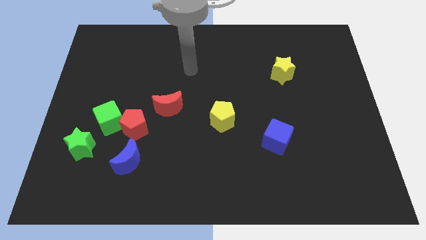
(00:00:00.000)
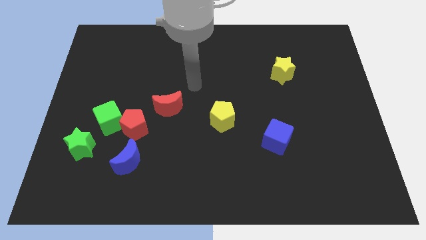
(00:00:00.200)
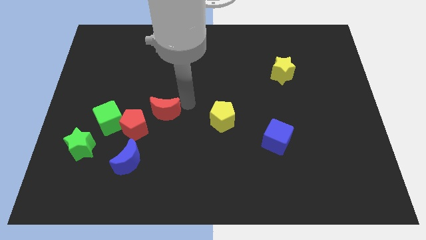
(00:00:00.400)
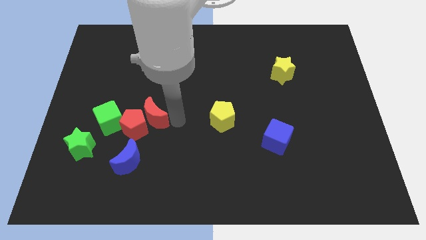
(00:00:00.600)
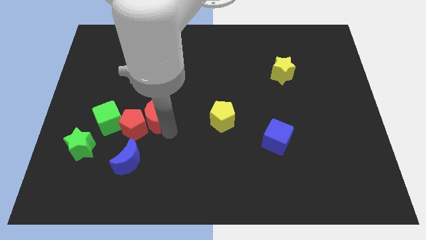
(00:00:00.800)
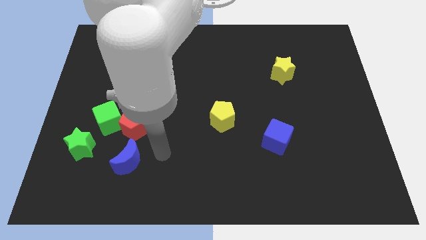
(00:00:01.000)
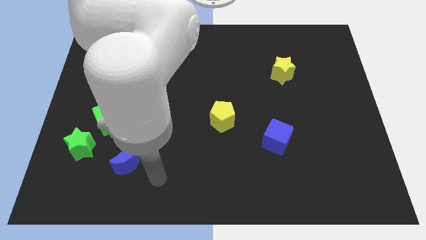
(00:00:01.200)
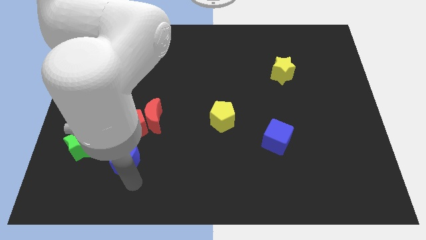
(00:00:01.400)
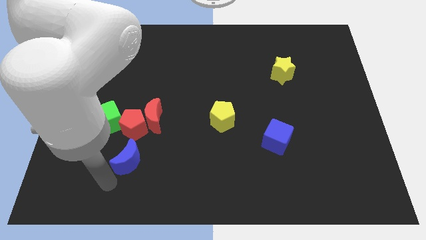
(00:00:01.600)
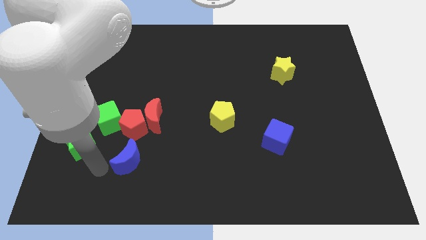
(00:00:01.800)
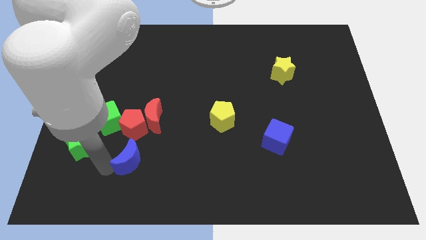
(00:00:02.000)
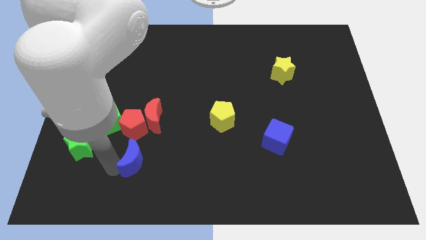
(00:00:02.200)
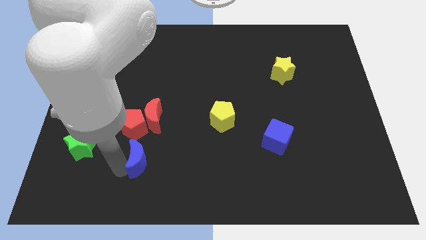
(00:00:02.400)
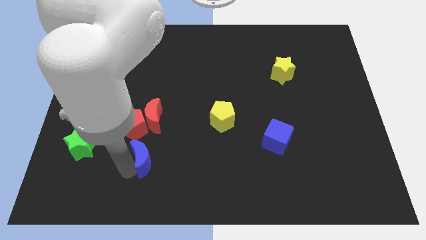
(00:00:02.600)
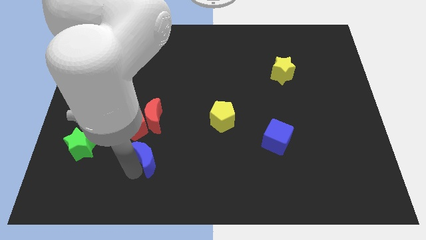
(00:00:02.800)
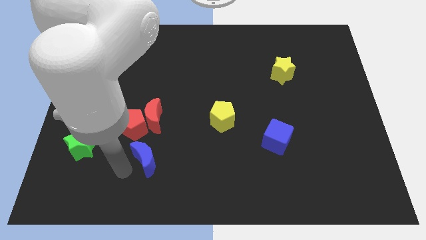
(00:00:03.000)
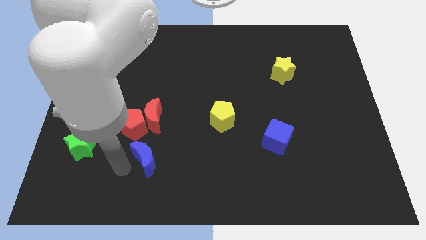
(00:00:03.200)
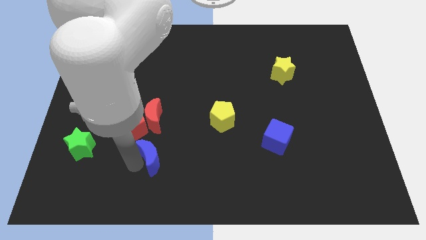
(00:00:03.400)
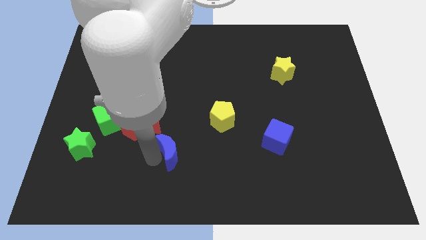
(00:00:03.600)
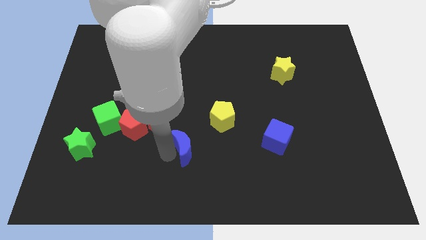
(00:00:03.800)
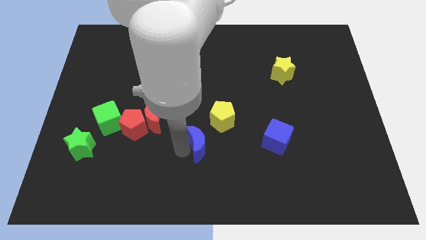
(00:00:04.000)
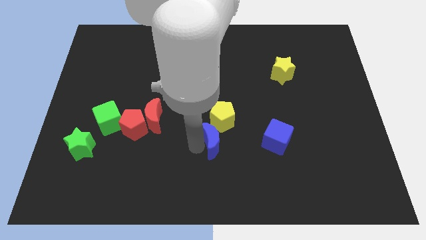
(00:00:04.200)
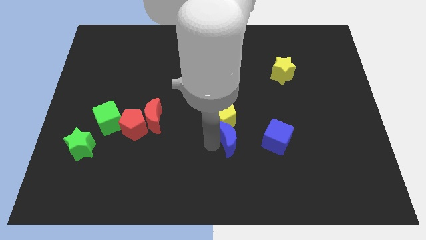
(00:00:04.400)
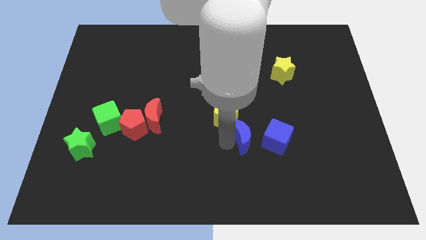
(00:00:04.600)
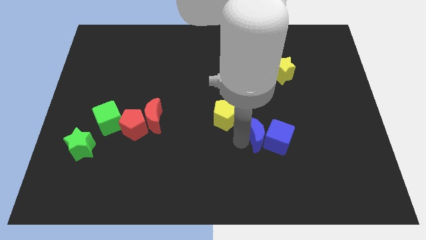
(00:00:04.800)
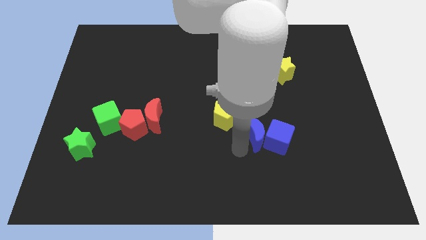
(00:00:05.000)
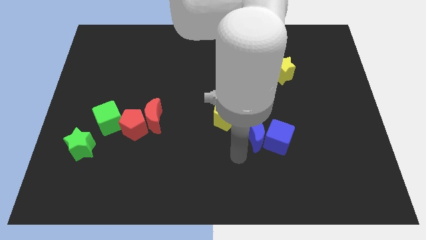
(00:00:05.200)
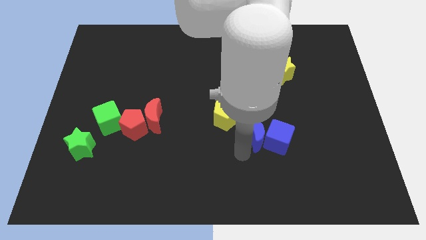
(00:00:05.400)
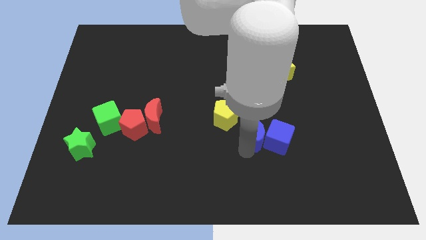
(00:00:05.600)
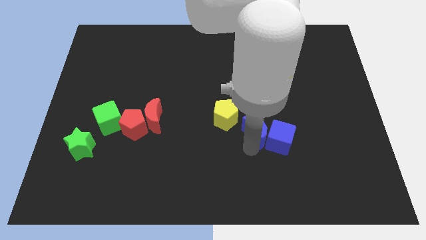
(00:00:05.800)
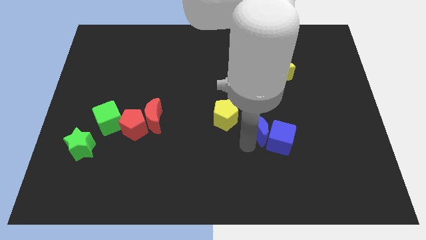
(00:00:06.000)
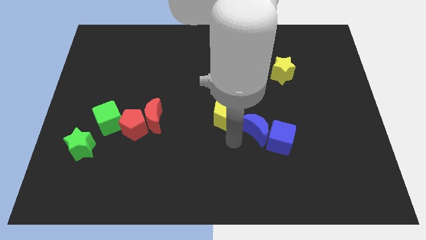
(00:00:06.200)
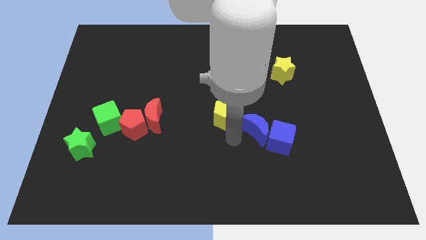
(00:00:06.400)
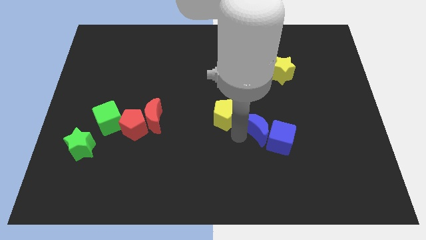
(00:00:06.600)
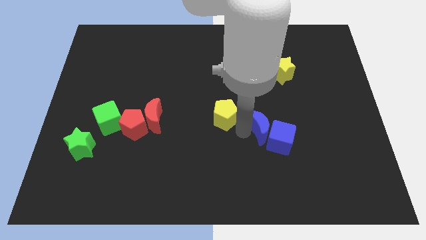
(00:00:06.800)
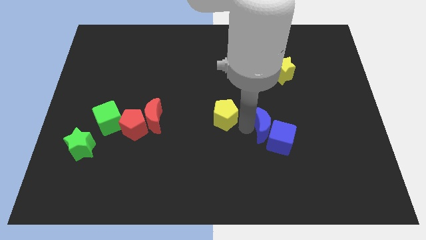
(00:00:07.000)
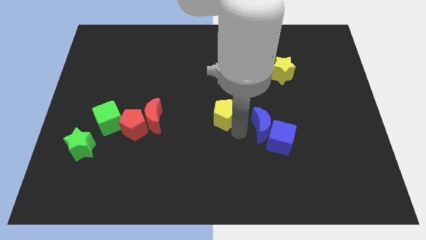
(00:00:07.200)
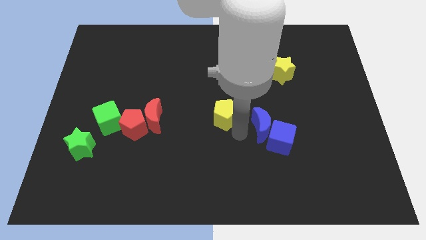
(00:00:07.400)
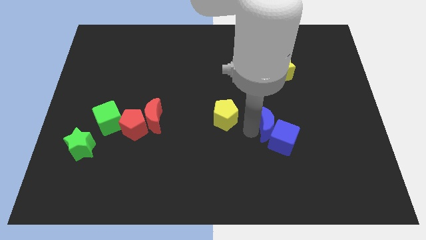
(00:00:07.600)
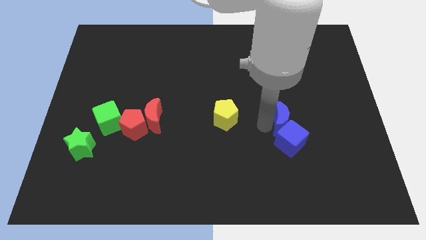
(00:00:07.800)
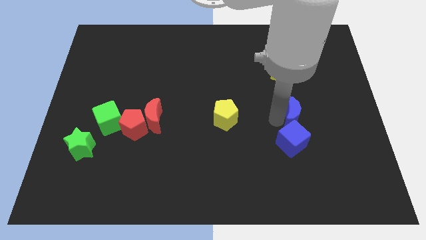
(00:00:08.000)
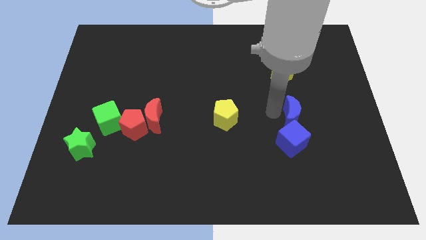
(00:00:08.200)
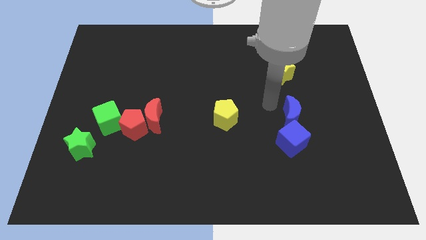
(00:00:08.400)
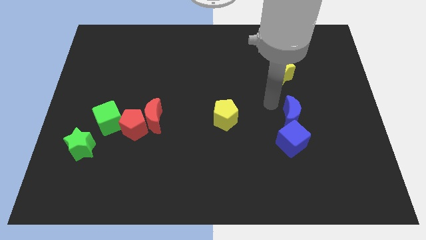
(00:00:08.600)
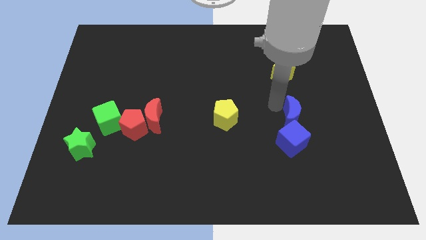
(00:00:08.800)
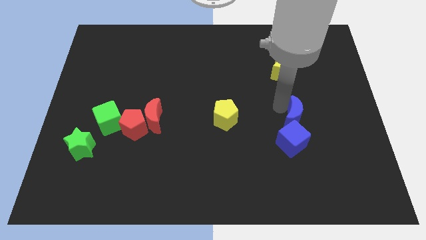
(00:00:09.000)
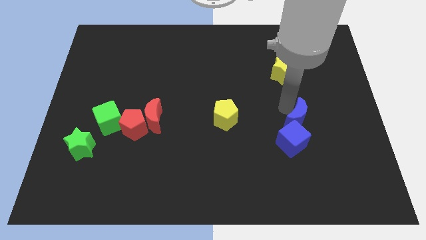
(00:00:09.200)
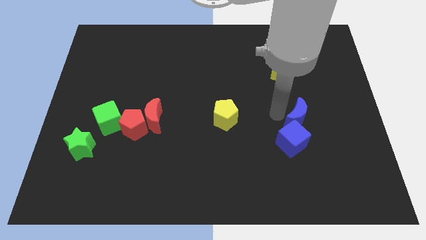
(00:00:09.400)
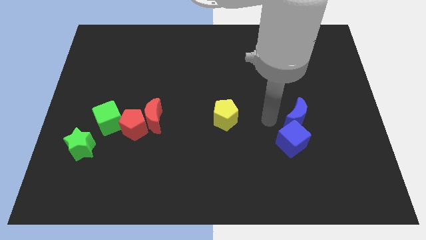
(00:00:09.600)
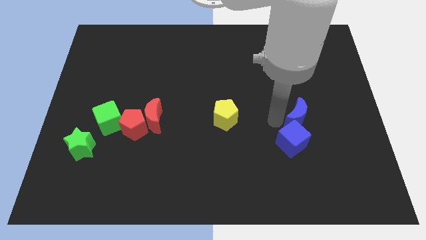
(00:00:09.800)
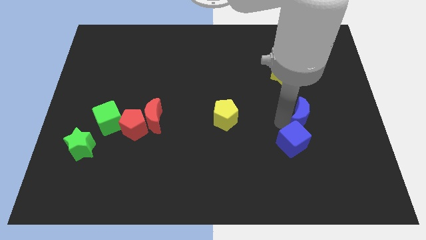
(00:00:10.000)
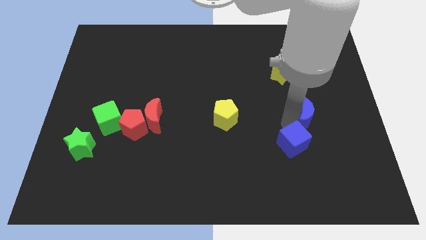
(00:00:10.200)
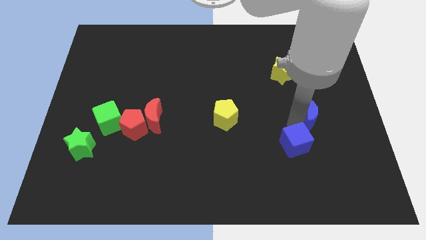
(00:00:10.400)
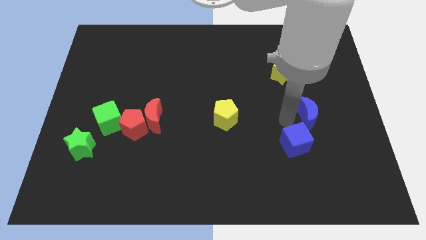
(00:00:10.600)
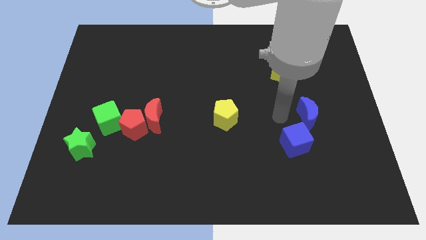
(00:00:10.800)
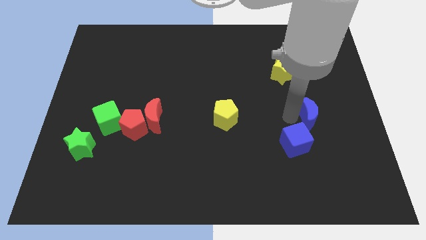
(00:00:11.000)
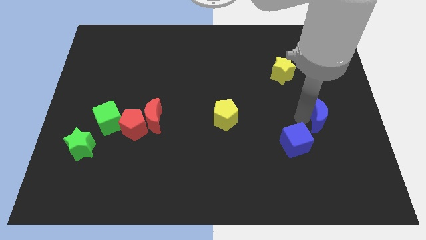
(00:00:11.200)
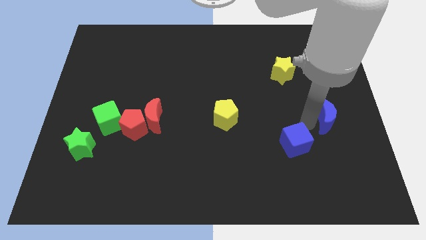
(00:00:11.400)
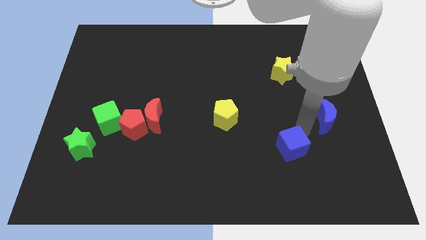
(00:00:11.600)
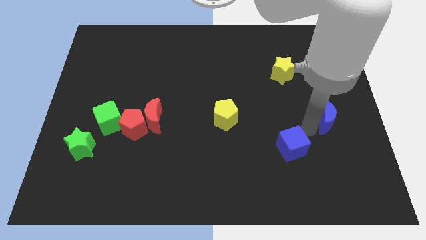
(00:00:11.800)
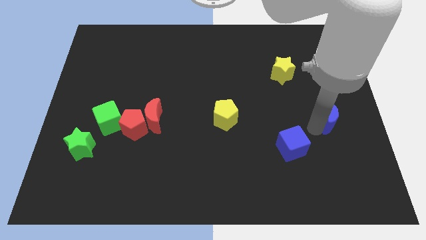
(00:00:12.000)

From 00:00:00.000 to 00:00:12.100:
push the blue moon to the right side of the board
